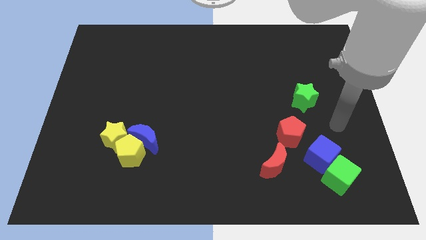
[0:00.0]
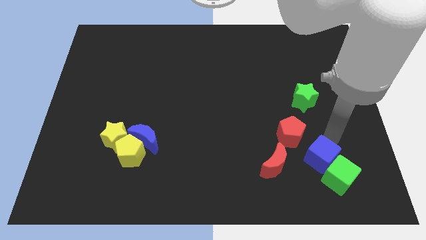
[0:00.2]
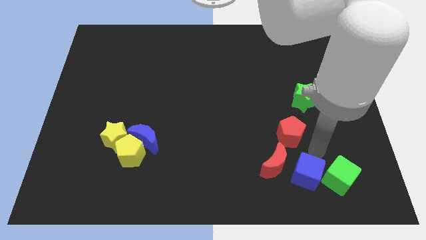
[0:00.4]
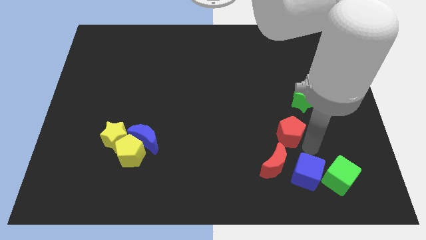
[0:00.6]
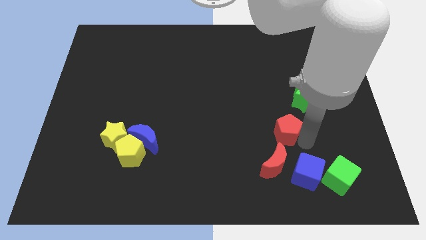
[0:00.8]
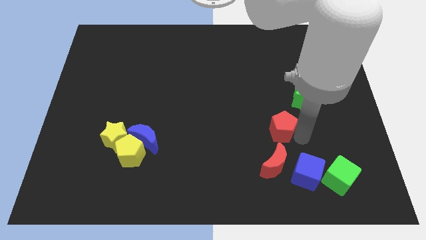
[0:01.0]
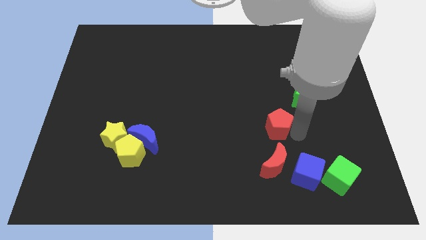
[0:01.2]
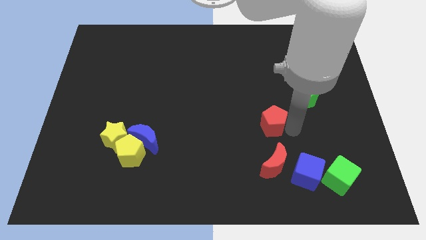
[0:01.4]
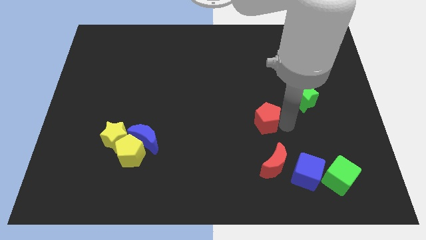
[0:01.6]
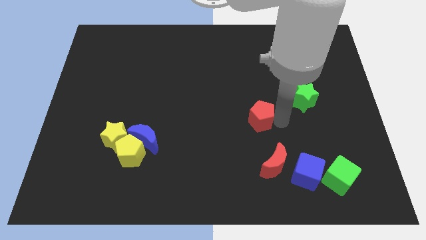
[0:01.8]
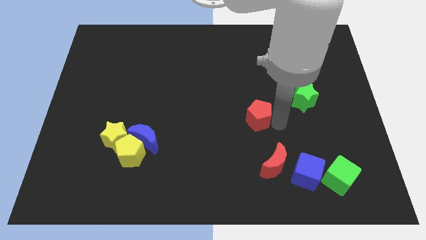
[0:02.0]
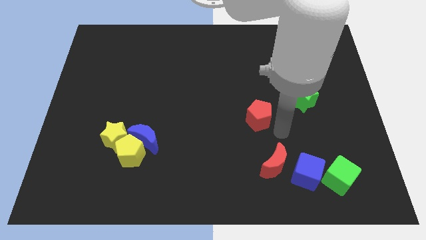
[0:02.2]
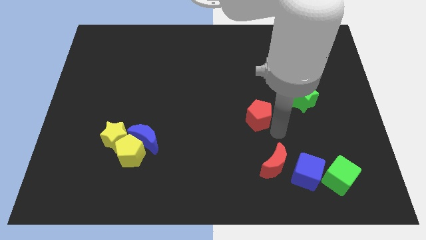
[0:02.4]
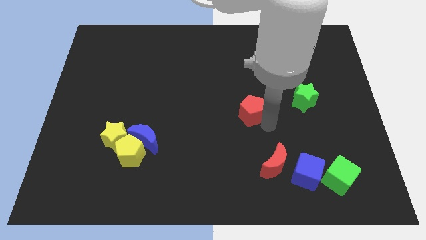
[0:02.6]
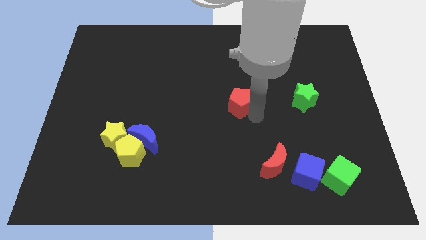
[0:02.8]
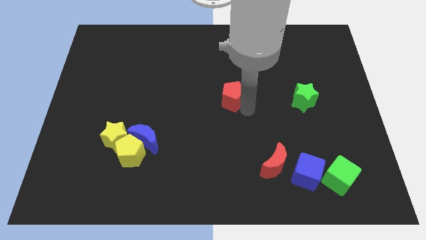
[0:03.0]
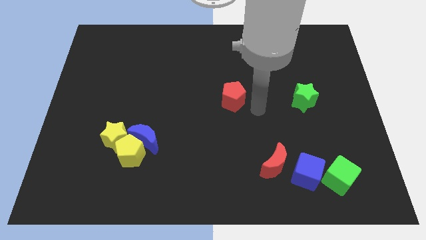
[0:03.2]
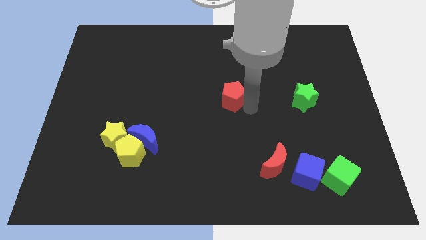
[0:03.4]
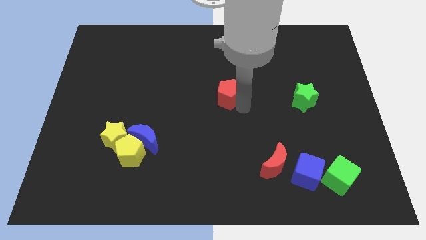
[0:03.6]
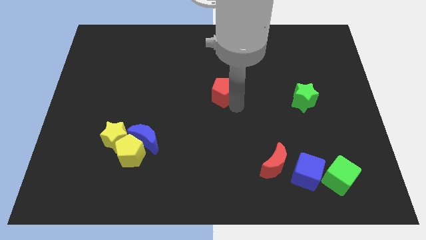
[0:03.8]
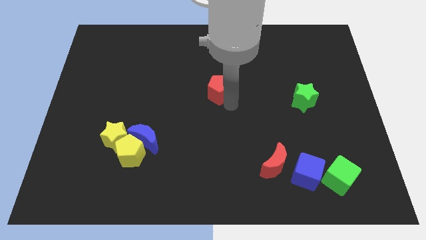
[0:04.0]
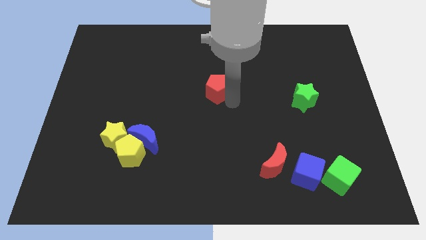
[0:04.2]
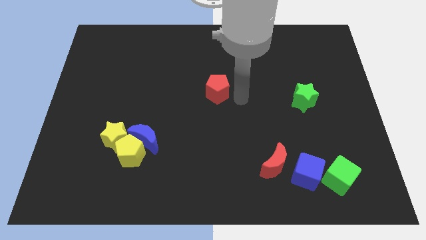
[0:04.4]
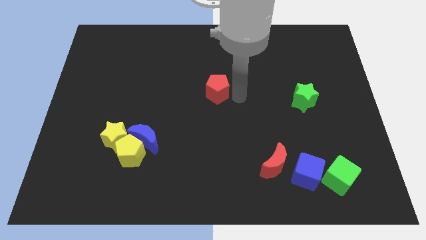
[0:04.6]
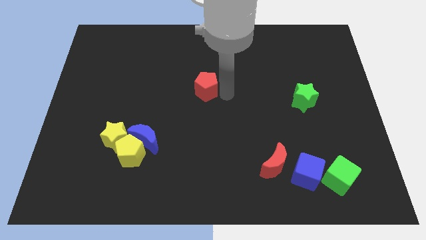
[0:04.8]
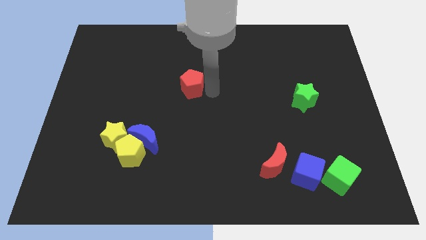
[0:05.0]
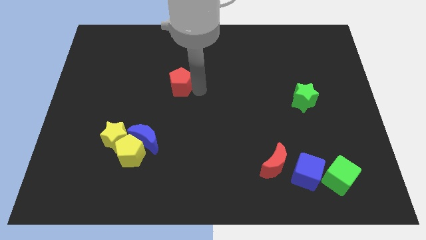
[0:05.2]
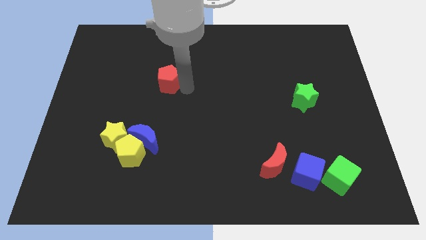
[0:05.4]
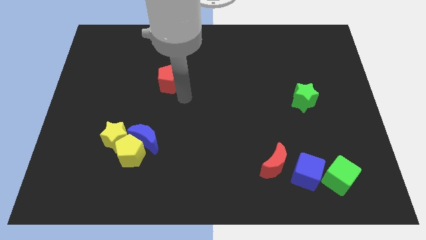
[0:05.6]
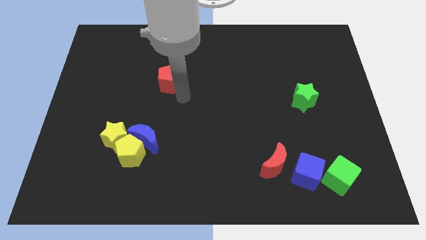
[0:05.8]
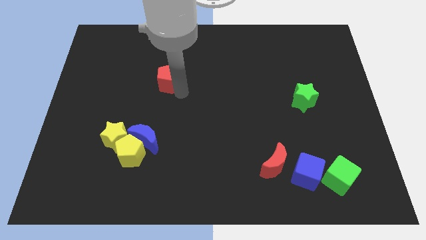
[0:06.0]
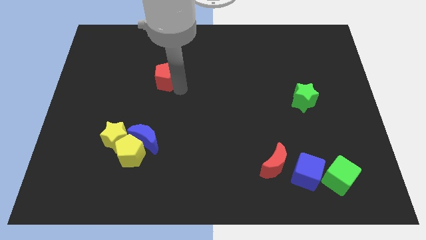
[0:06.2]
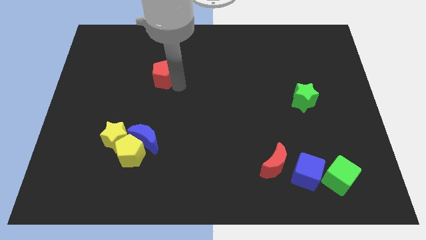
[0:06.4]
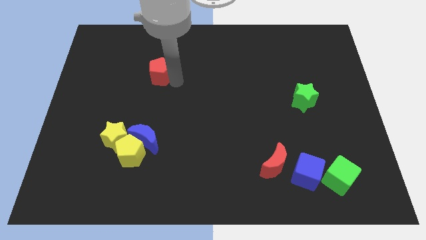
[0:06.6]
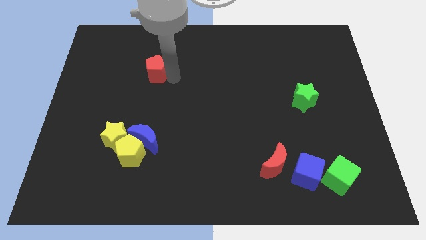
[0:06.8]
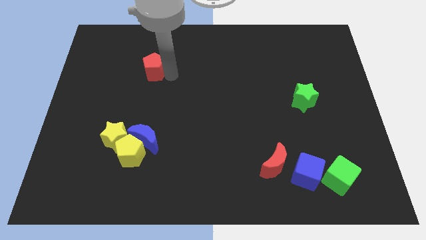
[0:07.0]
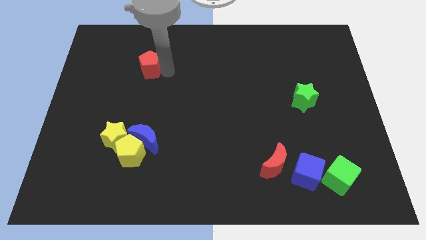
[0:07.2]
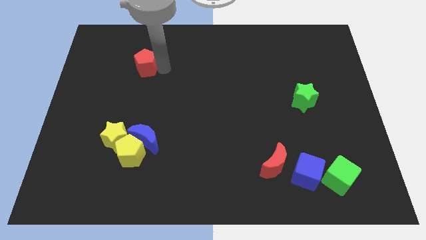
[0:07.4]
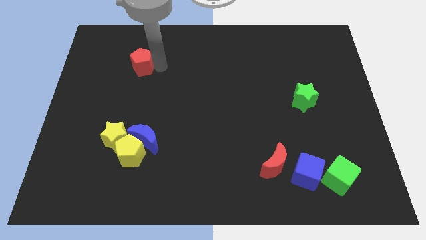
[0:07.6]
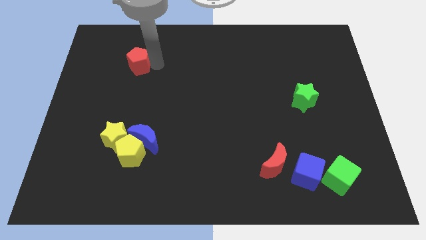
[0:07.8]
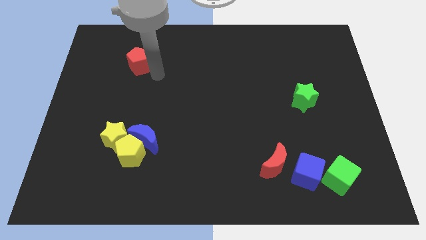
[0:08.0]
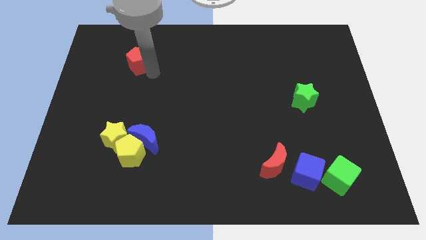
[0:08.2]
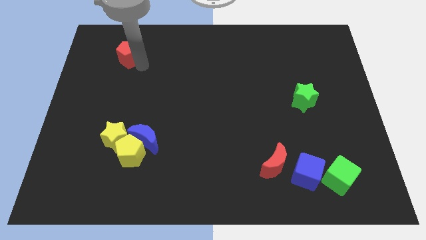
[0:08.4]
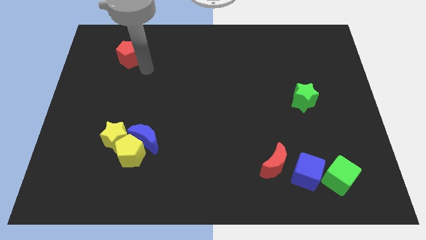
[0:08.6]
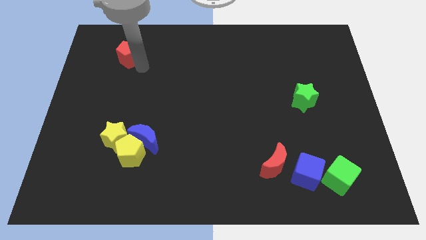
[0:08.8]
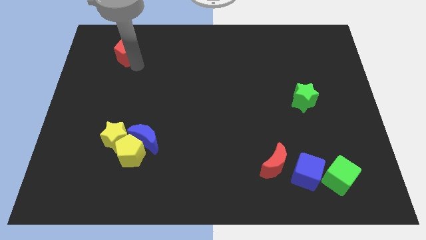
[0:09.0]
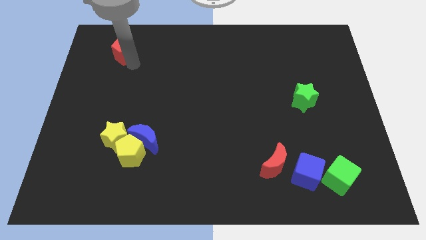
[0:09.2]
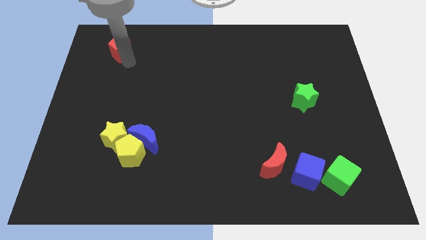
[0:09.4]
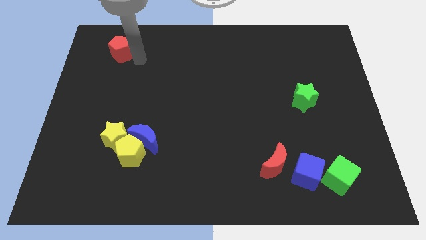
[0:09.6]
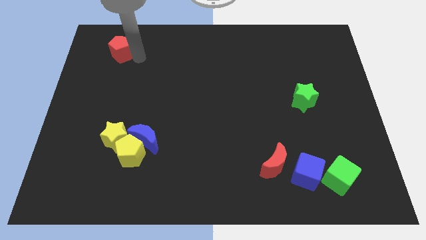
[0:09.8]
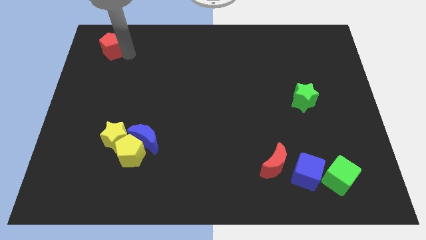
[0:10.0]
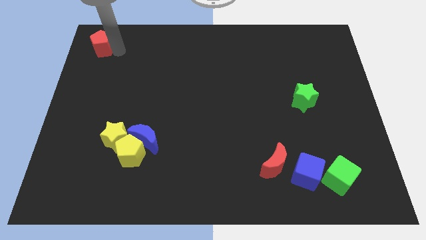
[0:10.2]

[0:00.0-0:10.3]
move the red pentagon to the top left

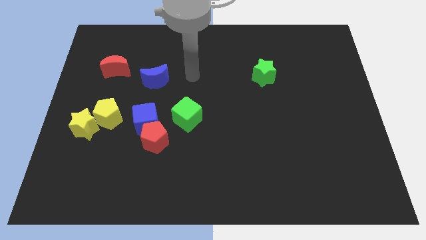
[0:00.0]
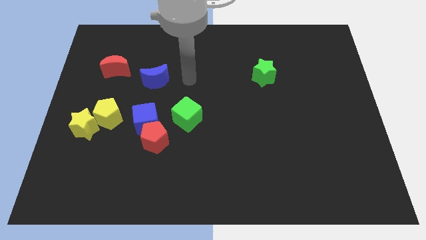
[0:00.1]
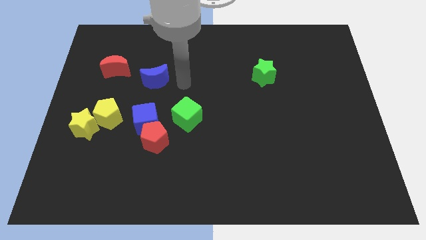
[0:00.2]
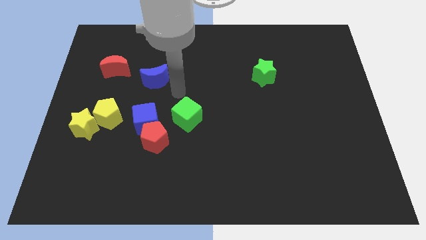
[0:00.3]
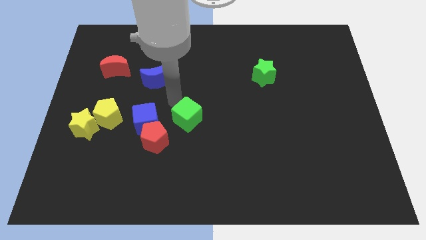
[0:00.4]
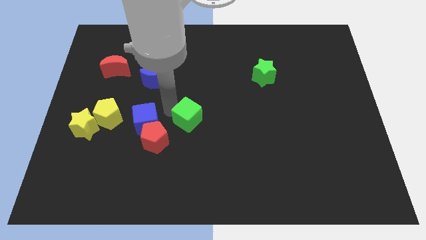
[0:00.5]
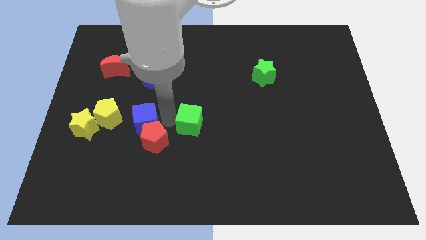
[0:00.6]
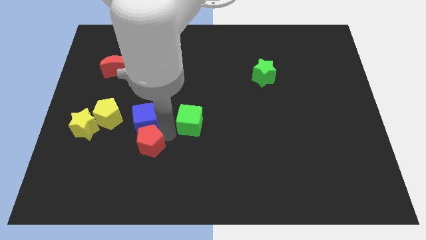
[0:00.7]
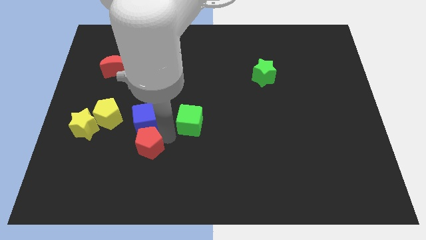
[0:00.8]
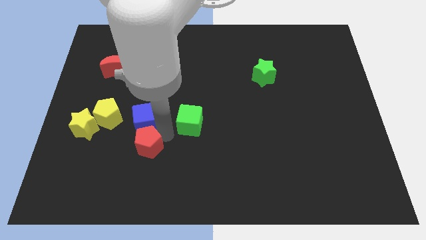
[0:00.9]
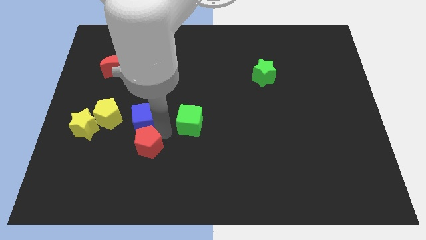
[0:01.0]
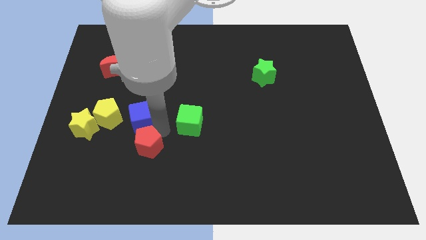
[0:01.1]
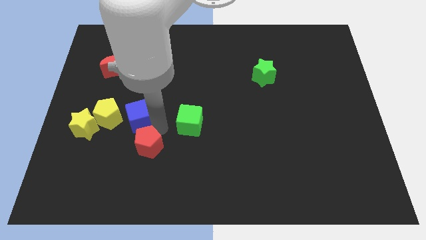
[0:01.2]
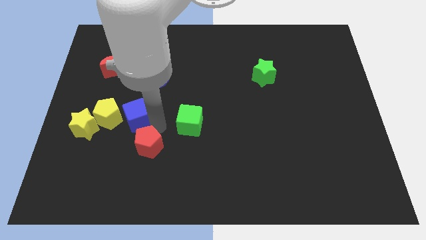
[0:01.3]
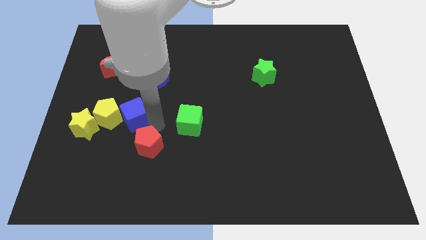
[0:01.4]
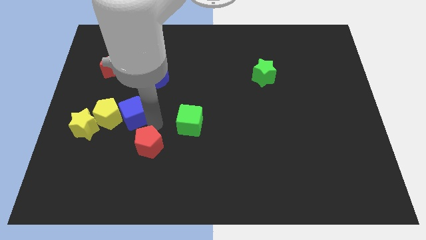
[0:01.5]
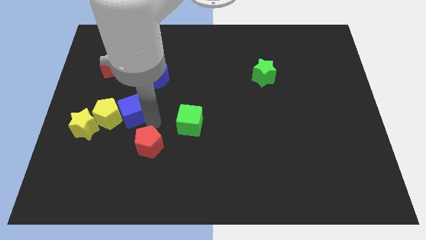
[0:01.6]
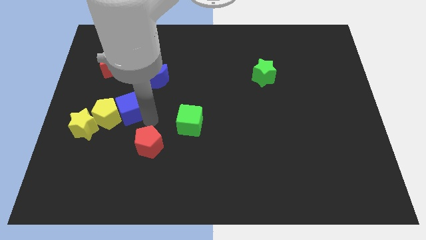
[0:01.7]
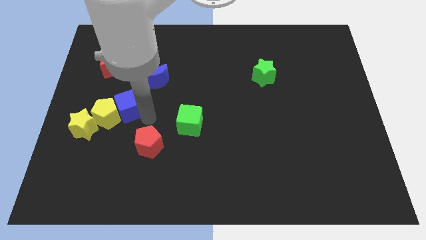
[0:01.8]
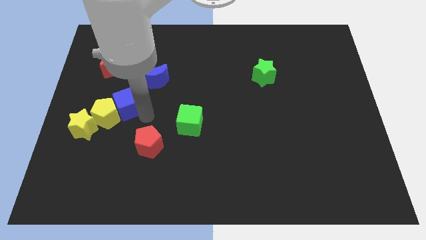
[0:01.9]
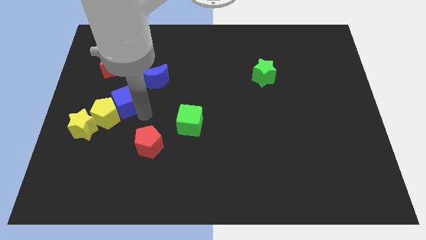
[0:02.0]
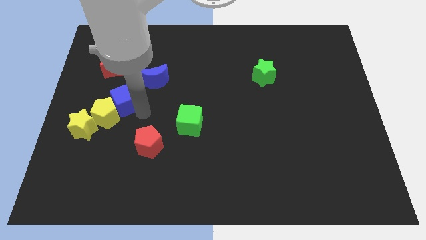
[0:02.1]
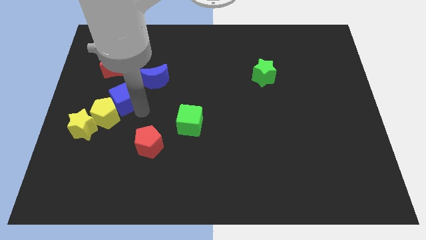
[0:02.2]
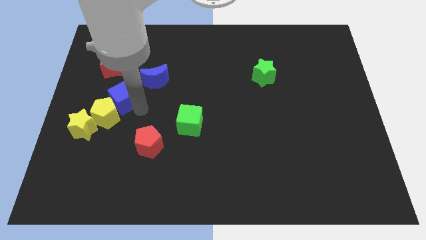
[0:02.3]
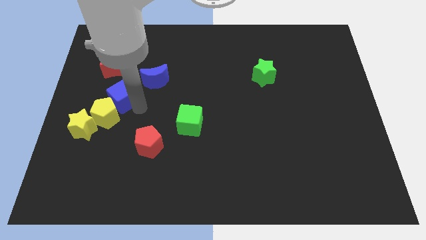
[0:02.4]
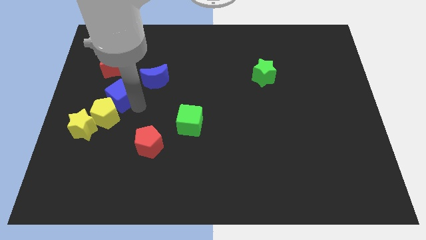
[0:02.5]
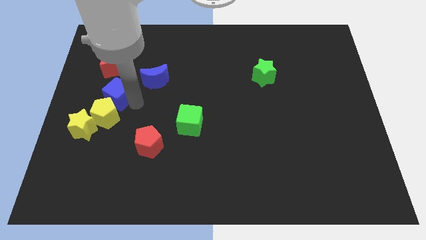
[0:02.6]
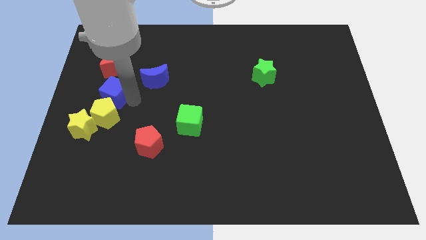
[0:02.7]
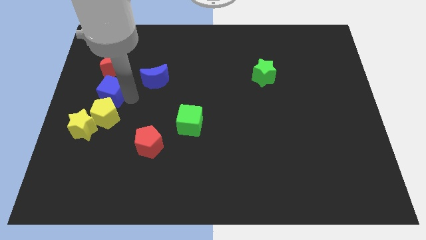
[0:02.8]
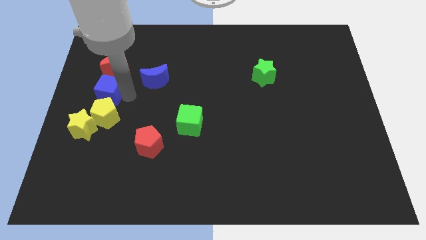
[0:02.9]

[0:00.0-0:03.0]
slide the blue cube to the left side
